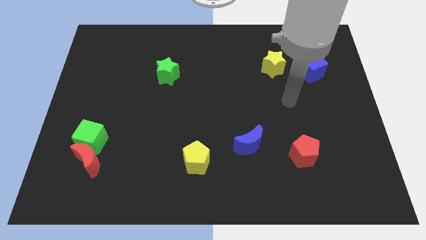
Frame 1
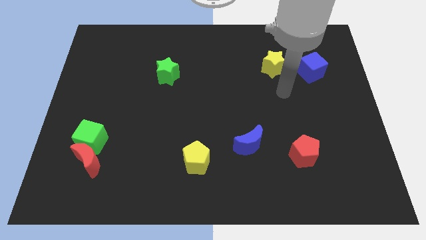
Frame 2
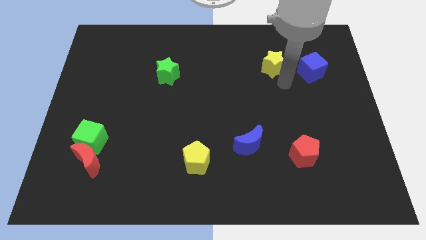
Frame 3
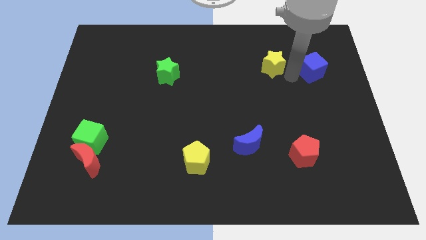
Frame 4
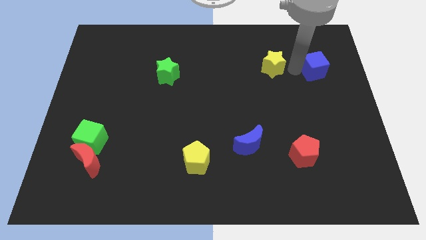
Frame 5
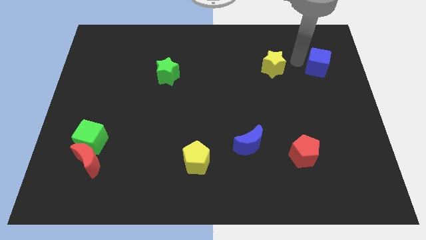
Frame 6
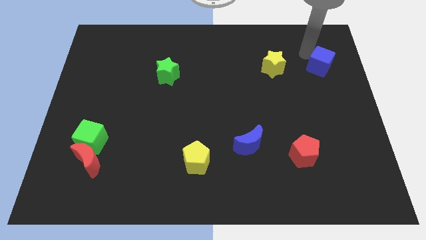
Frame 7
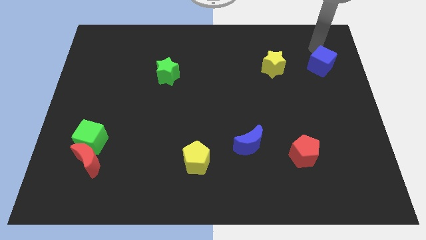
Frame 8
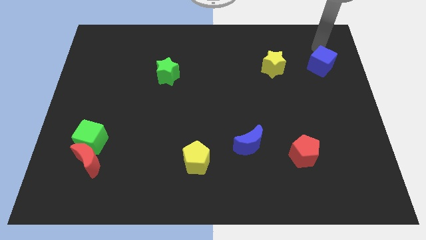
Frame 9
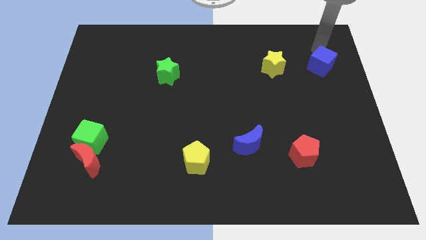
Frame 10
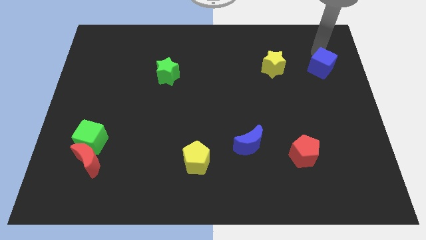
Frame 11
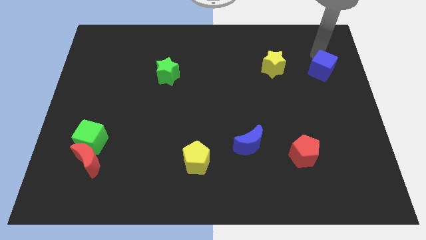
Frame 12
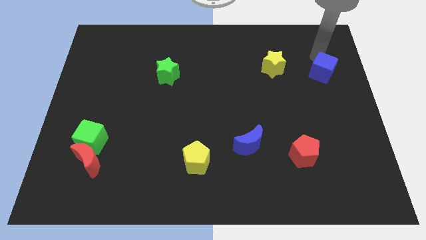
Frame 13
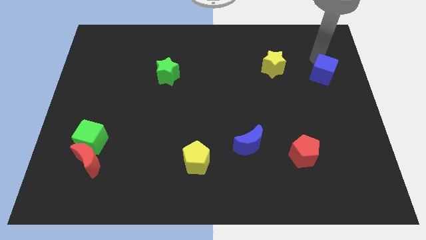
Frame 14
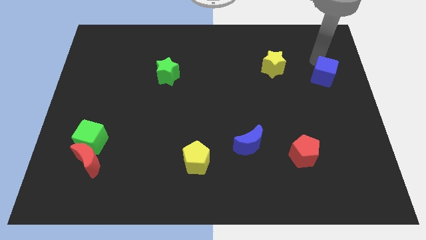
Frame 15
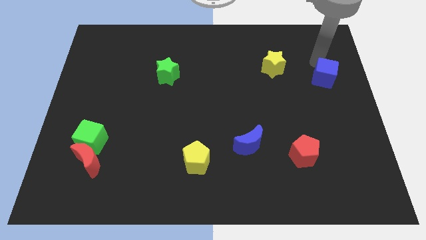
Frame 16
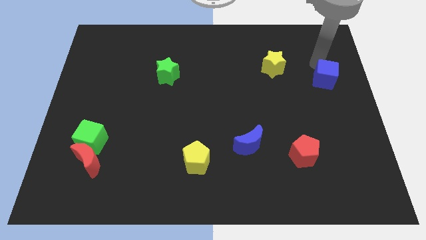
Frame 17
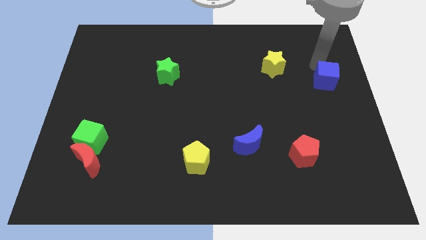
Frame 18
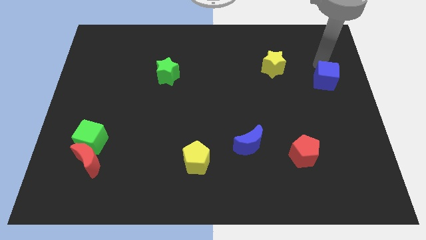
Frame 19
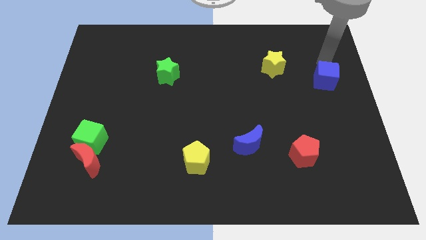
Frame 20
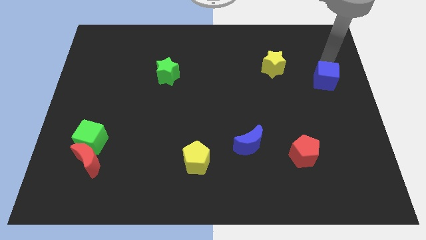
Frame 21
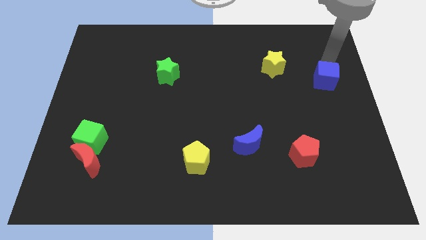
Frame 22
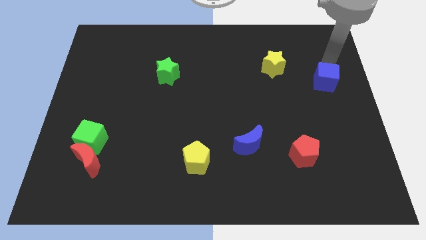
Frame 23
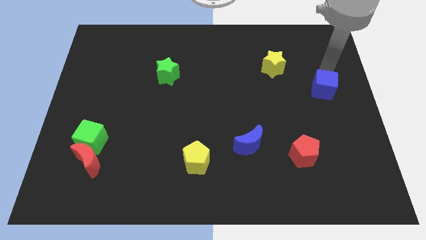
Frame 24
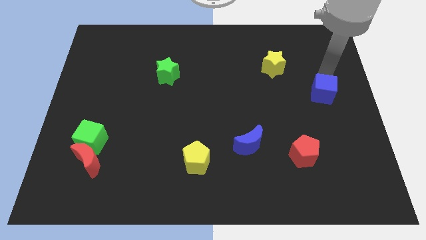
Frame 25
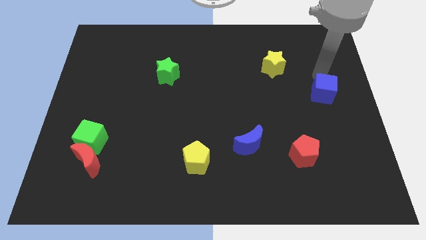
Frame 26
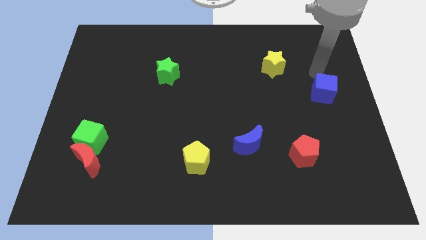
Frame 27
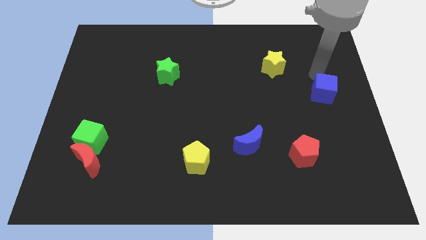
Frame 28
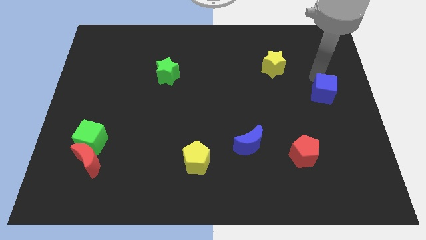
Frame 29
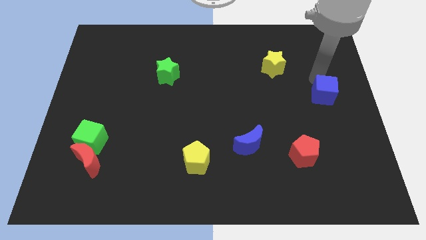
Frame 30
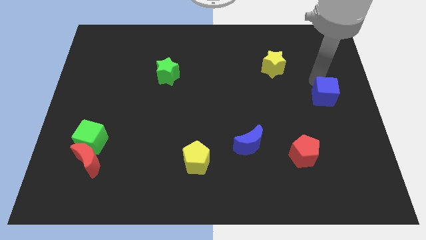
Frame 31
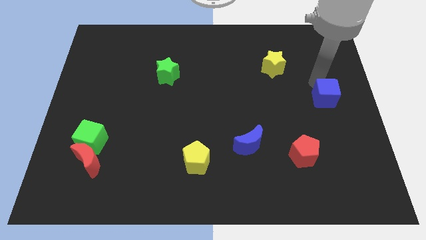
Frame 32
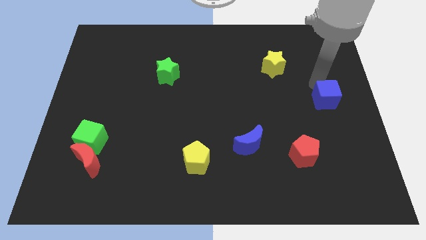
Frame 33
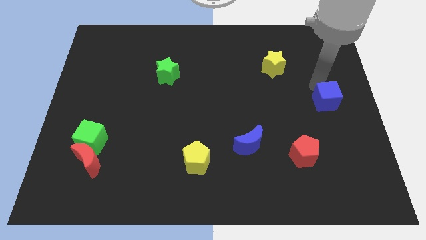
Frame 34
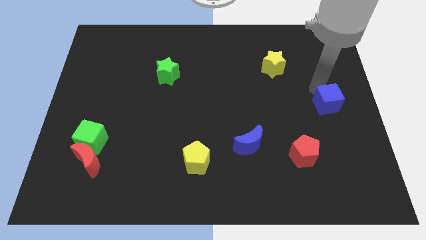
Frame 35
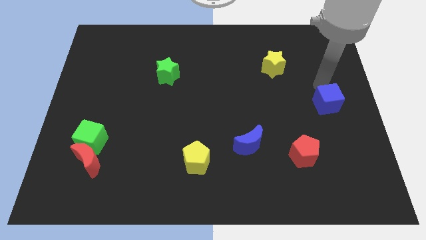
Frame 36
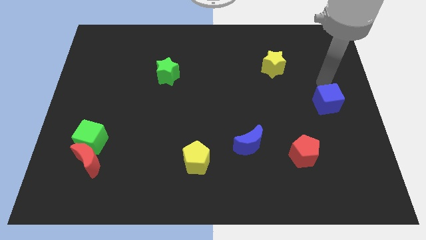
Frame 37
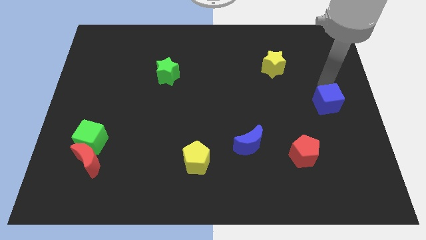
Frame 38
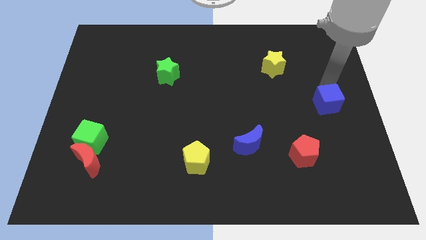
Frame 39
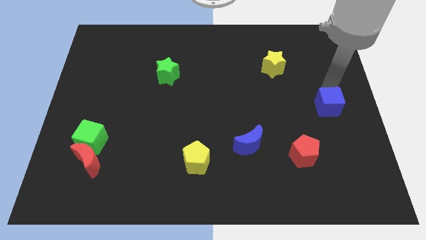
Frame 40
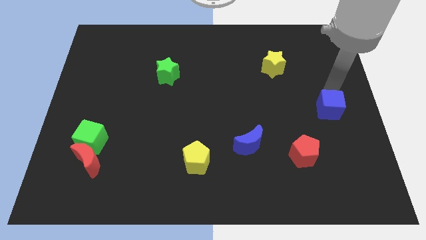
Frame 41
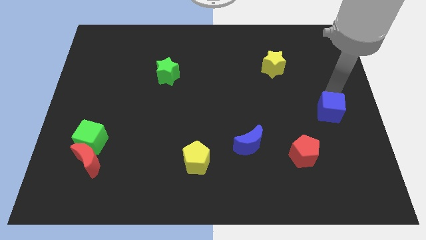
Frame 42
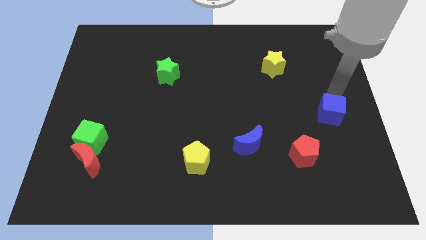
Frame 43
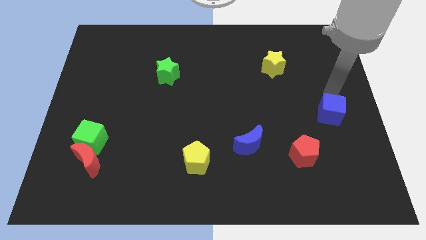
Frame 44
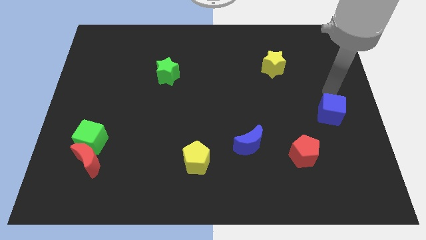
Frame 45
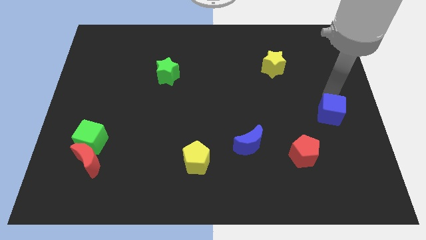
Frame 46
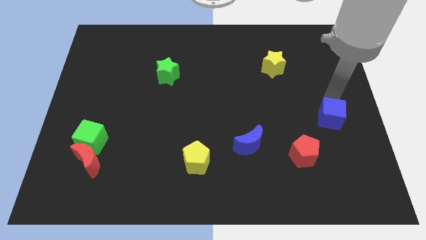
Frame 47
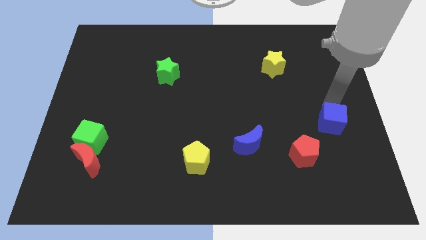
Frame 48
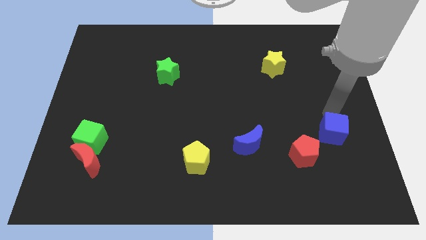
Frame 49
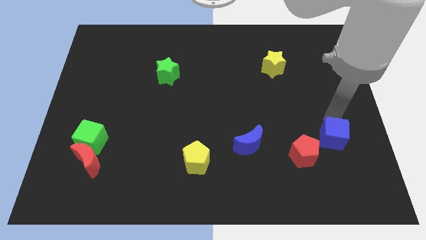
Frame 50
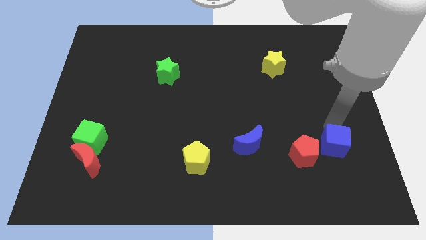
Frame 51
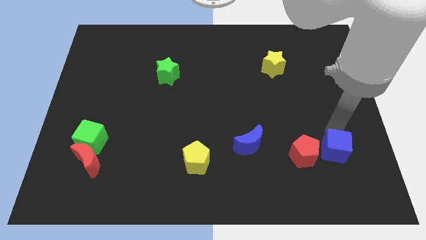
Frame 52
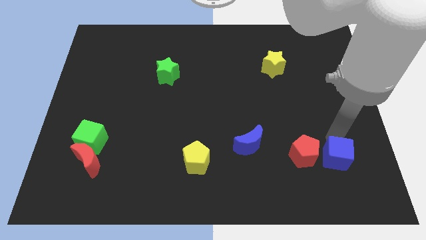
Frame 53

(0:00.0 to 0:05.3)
move the blue cube to the bottom right of the red pentagon

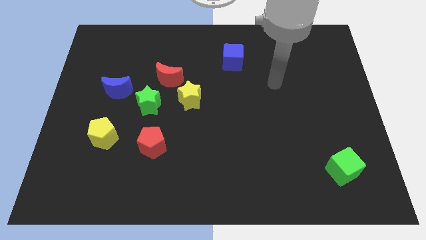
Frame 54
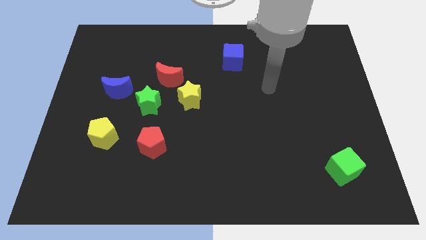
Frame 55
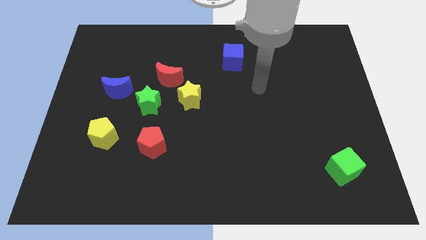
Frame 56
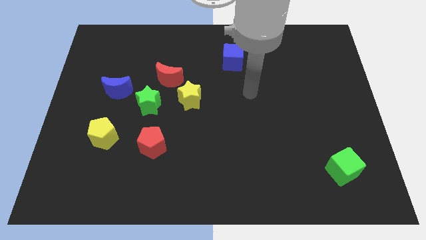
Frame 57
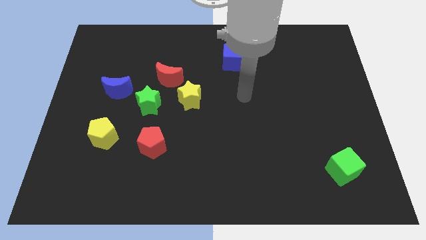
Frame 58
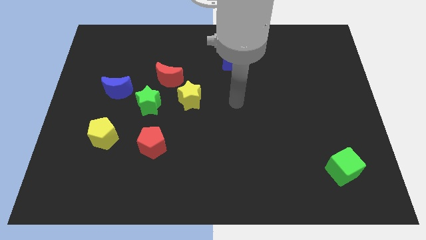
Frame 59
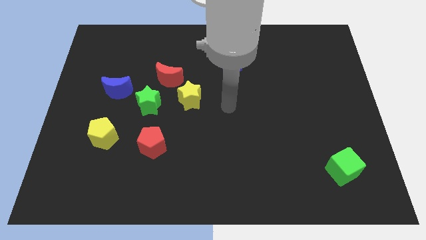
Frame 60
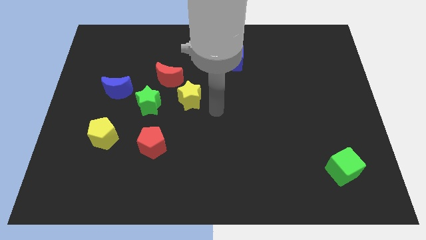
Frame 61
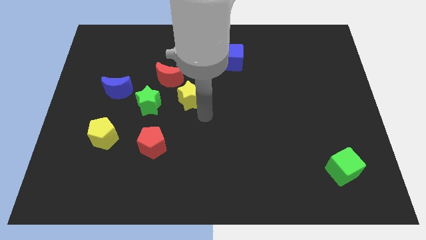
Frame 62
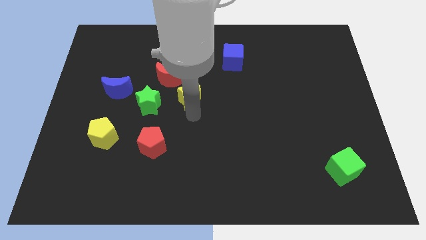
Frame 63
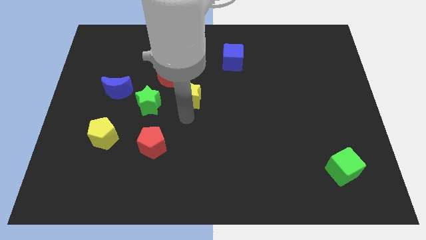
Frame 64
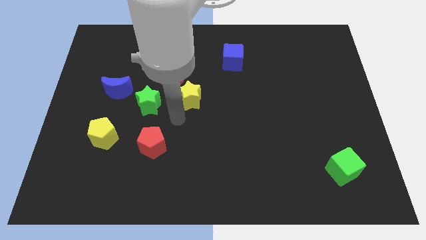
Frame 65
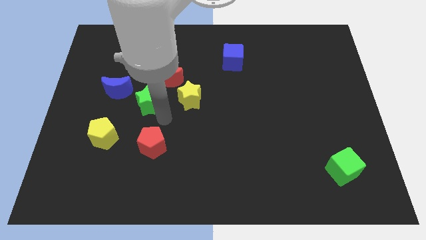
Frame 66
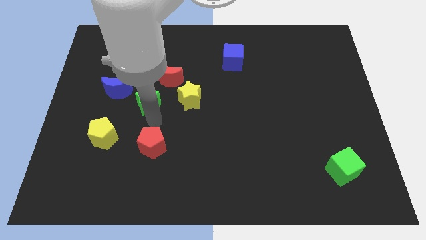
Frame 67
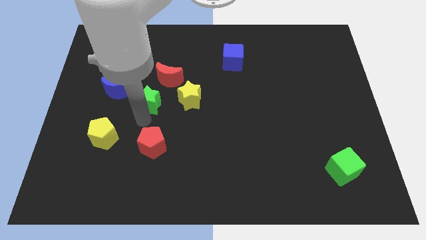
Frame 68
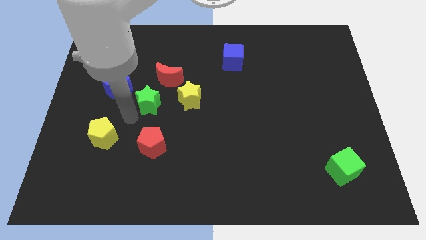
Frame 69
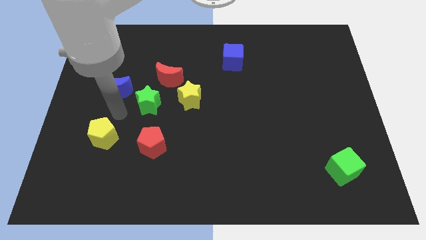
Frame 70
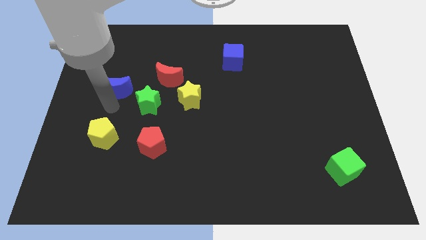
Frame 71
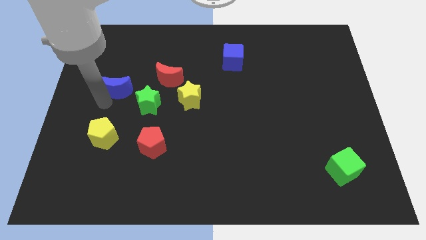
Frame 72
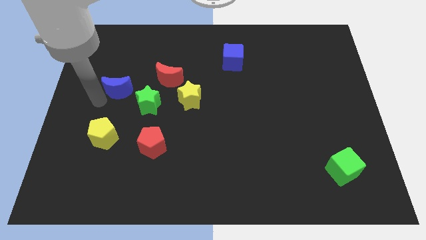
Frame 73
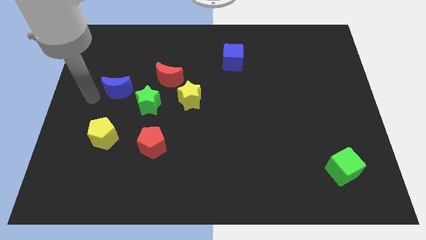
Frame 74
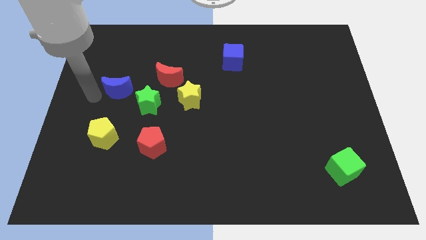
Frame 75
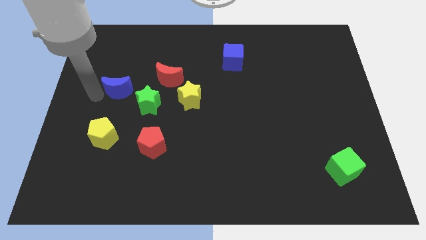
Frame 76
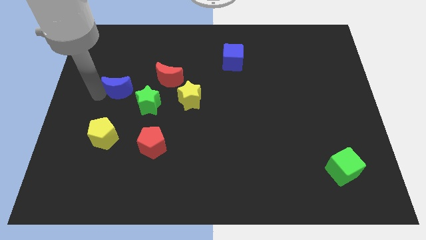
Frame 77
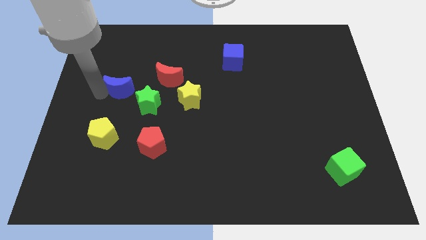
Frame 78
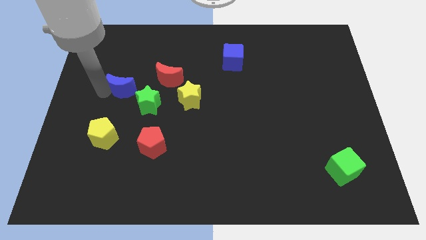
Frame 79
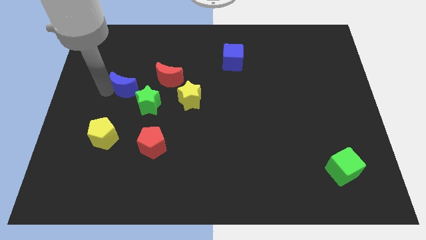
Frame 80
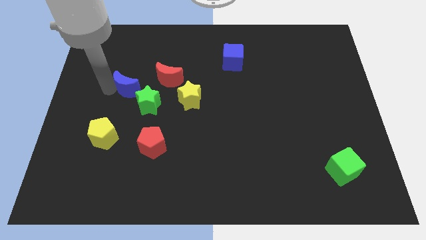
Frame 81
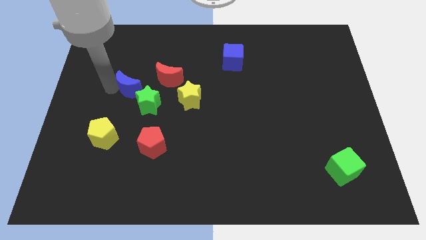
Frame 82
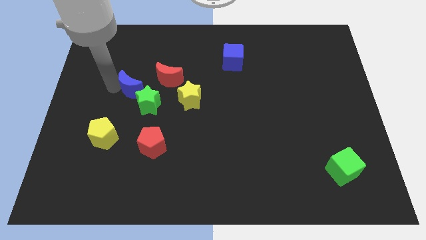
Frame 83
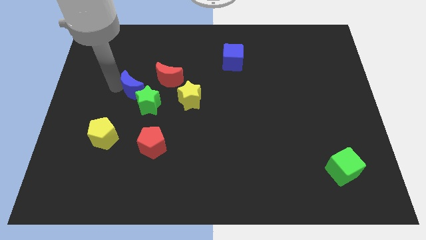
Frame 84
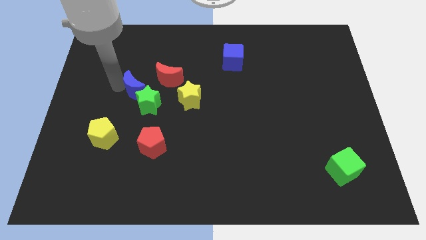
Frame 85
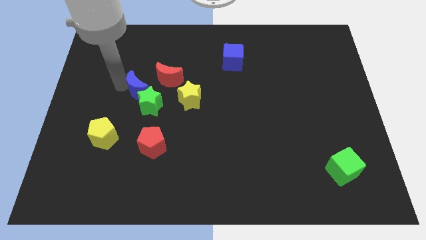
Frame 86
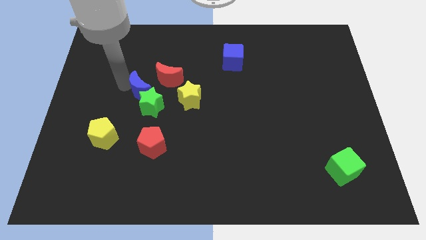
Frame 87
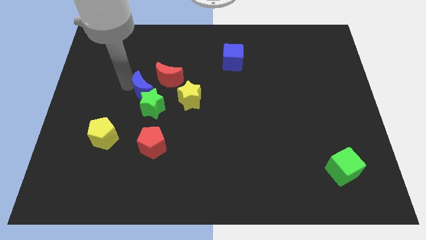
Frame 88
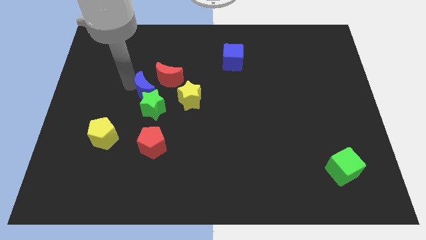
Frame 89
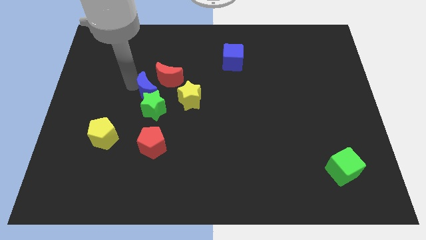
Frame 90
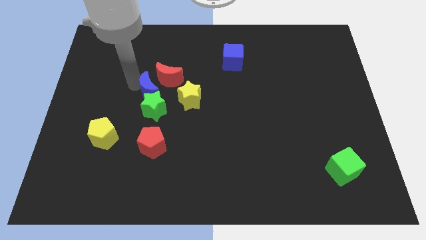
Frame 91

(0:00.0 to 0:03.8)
push the blue moon to the bottom side of the red moon
